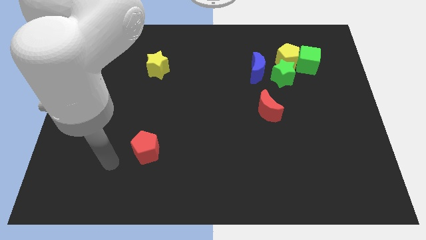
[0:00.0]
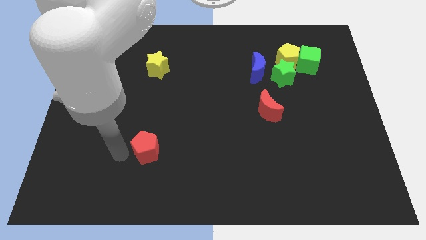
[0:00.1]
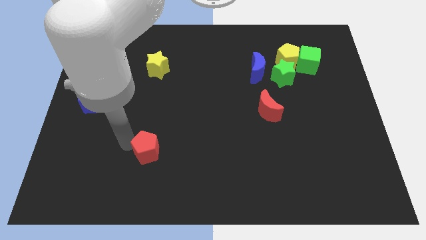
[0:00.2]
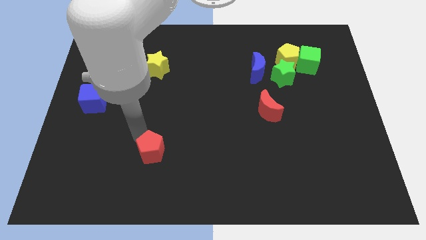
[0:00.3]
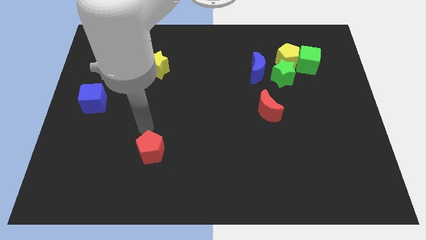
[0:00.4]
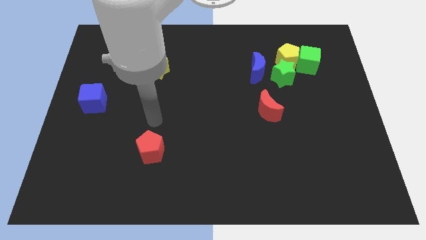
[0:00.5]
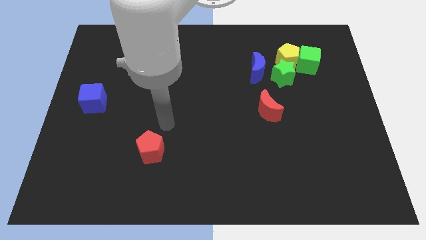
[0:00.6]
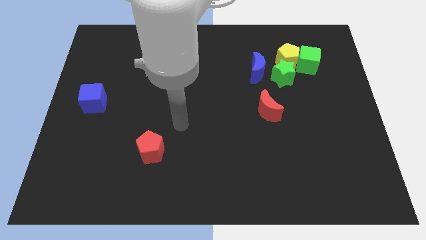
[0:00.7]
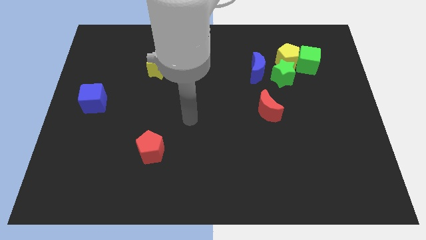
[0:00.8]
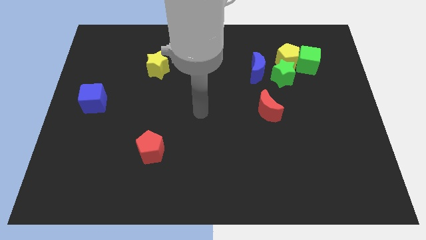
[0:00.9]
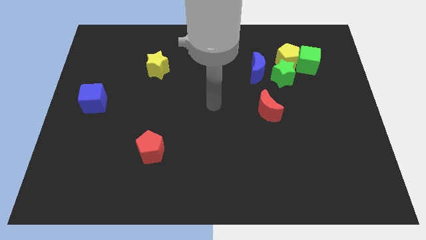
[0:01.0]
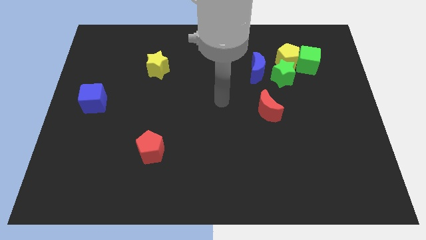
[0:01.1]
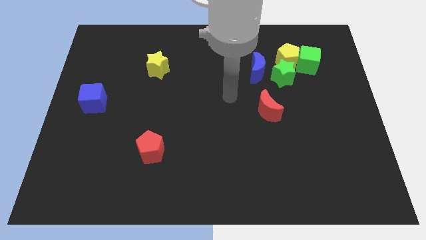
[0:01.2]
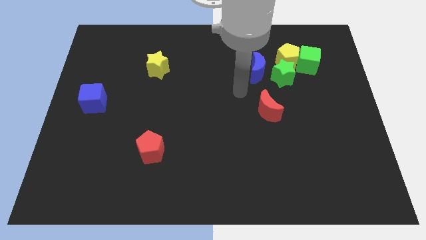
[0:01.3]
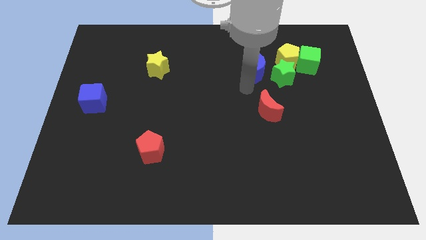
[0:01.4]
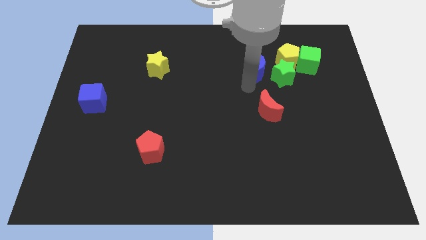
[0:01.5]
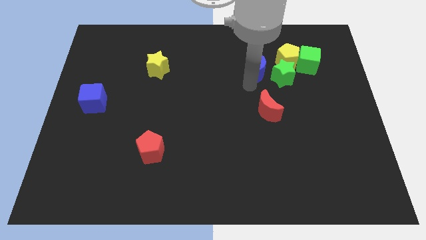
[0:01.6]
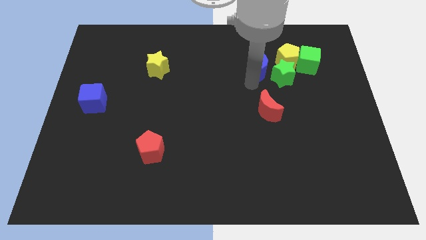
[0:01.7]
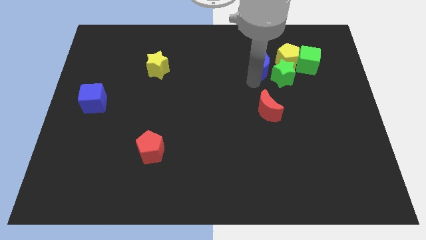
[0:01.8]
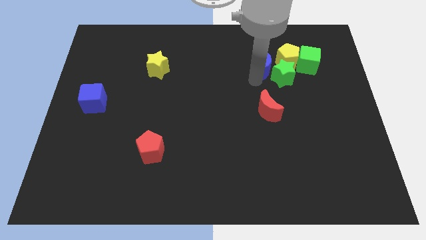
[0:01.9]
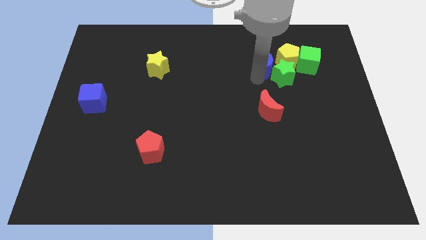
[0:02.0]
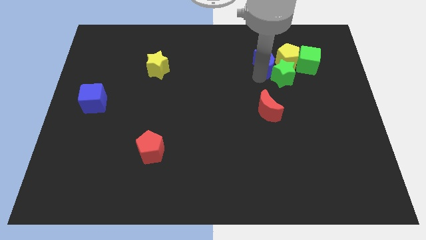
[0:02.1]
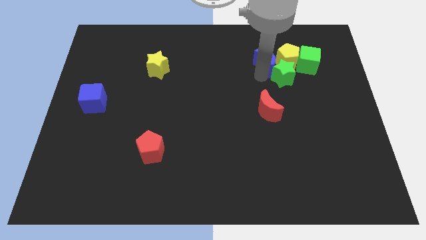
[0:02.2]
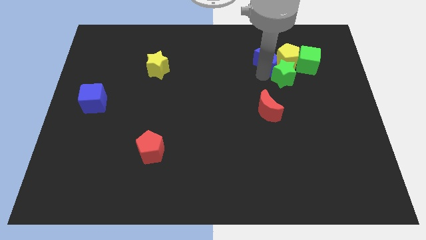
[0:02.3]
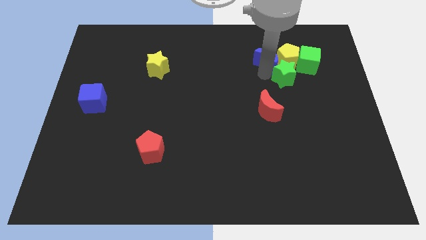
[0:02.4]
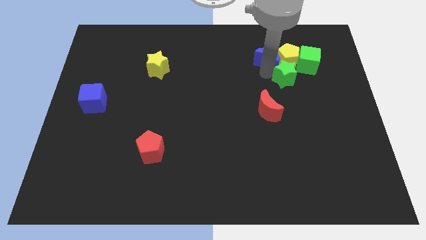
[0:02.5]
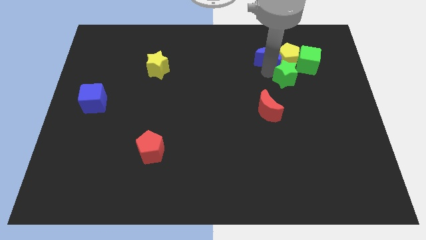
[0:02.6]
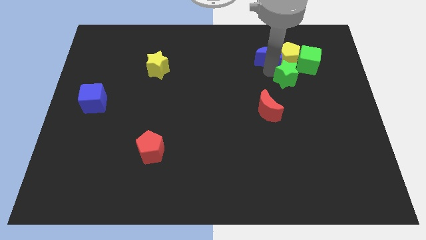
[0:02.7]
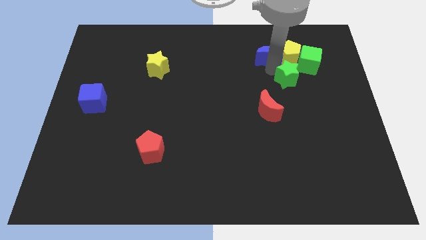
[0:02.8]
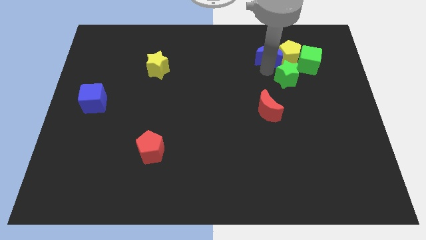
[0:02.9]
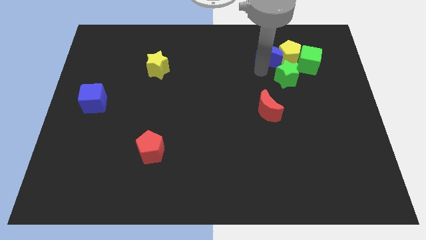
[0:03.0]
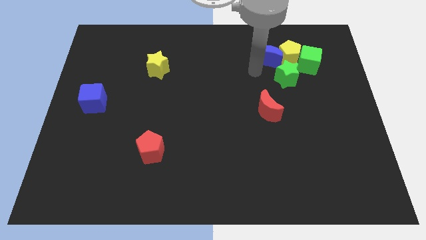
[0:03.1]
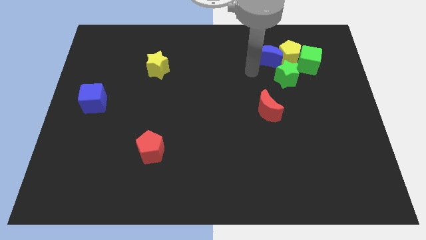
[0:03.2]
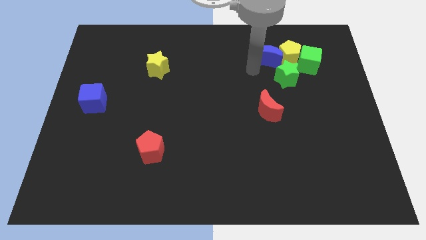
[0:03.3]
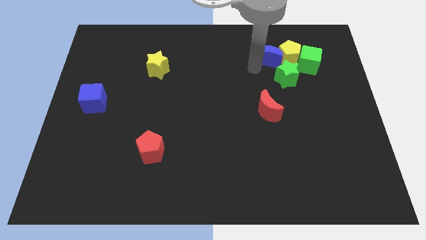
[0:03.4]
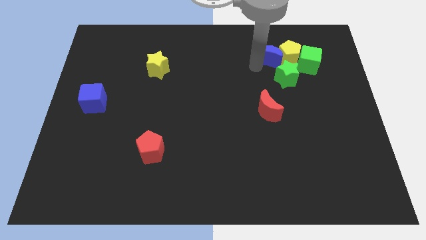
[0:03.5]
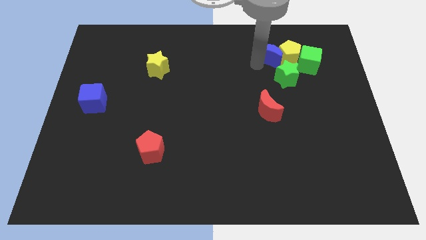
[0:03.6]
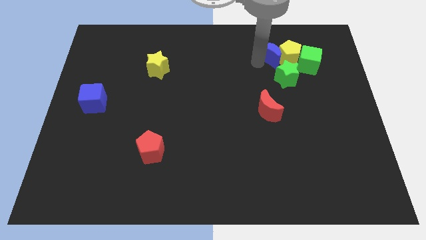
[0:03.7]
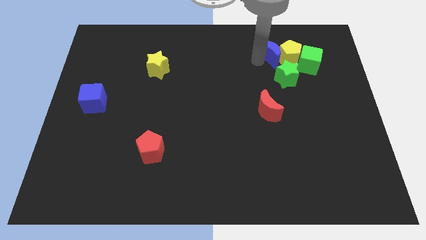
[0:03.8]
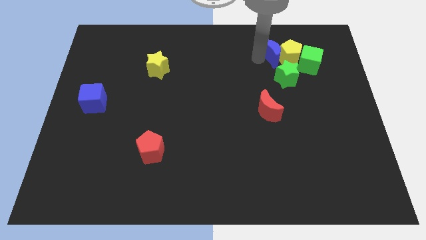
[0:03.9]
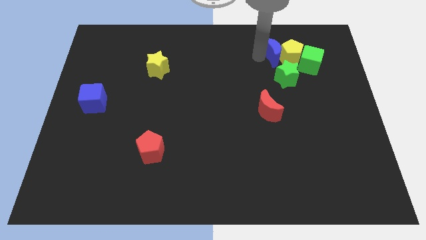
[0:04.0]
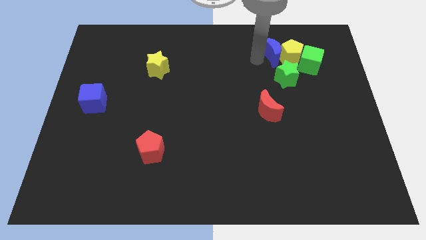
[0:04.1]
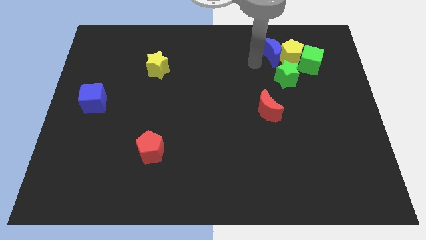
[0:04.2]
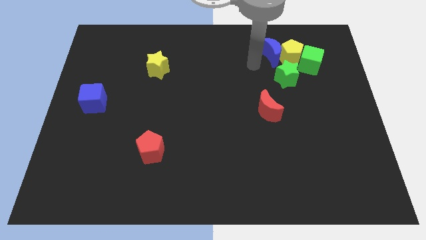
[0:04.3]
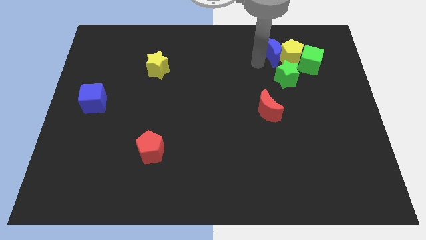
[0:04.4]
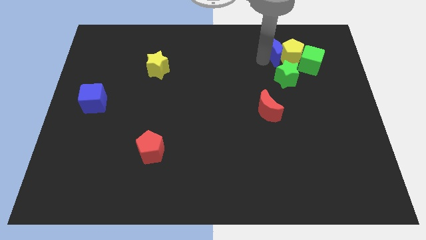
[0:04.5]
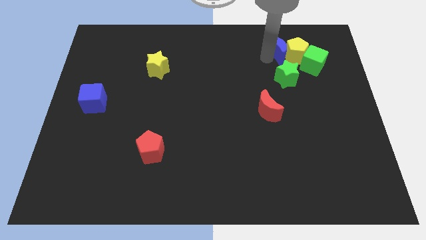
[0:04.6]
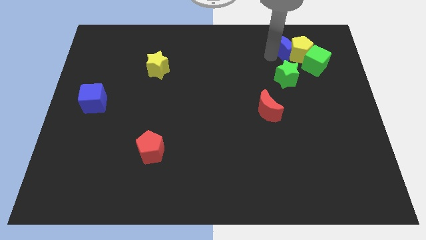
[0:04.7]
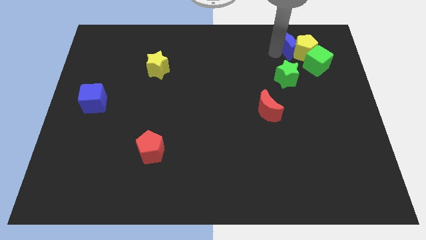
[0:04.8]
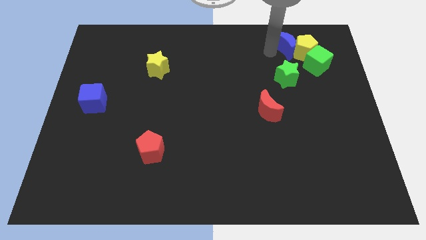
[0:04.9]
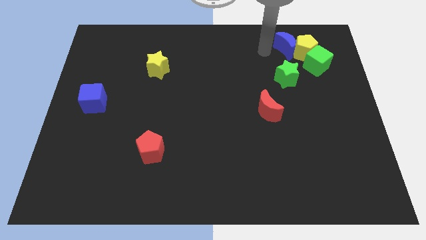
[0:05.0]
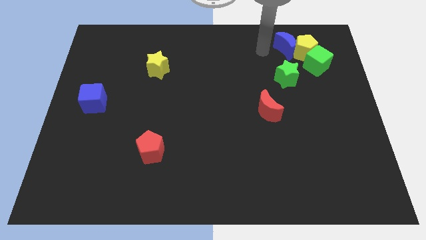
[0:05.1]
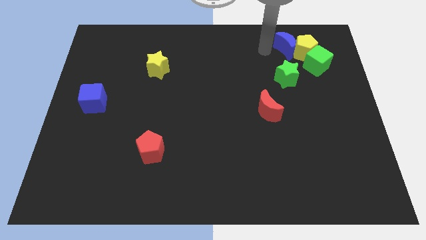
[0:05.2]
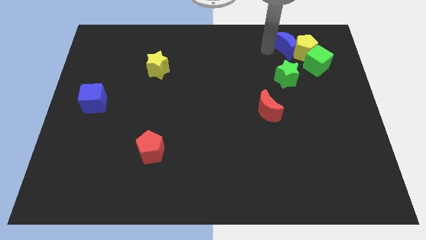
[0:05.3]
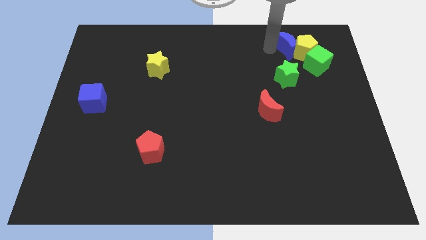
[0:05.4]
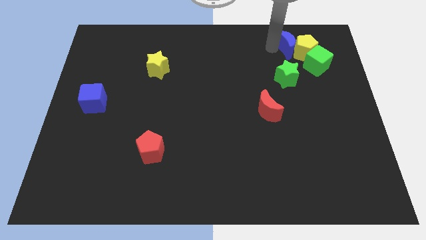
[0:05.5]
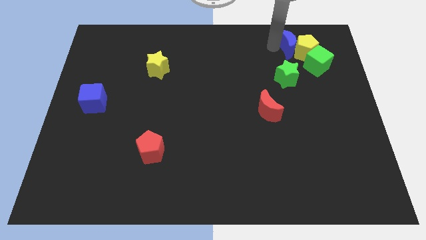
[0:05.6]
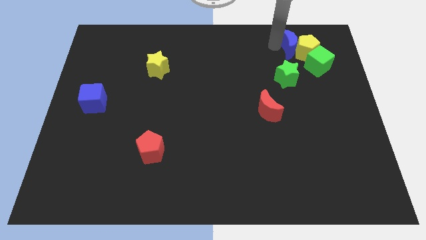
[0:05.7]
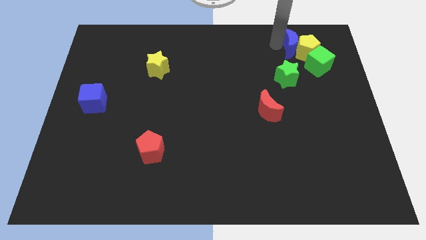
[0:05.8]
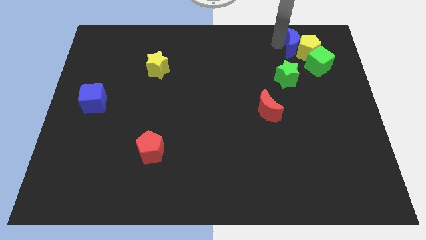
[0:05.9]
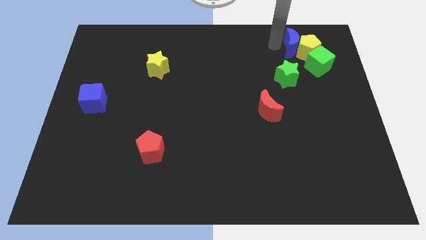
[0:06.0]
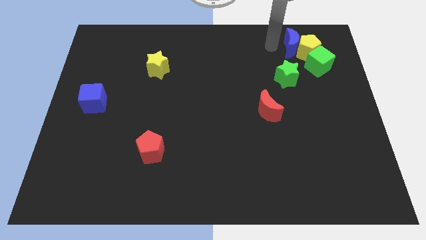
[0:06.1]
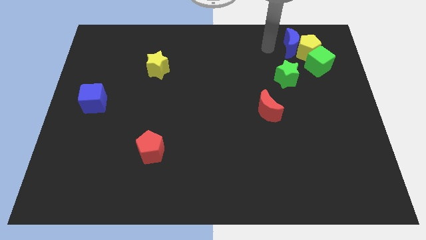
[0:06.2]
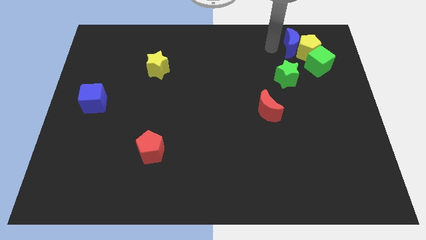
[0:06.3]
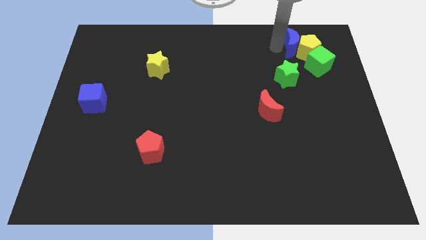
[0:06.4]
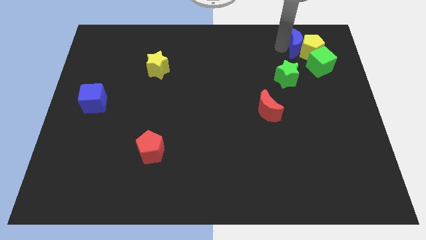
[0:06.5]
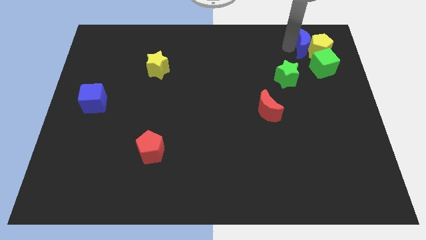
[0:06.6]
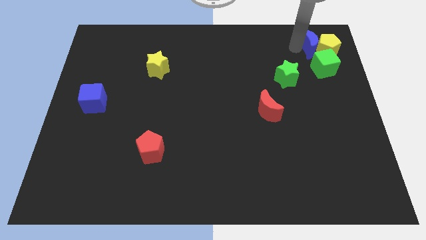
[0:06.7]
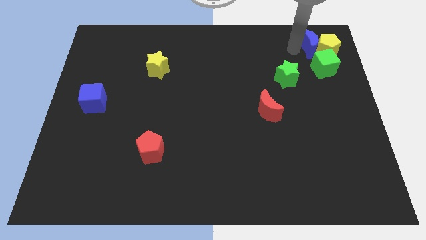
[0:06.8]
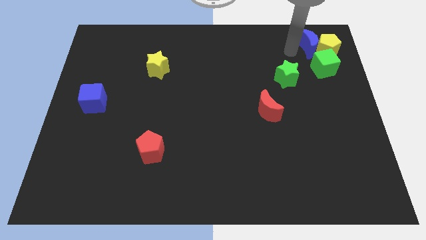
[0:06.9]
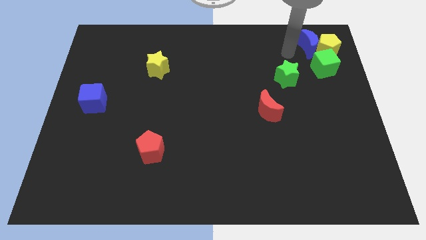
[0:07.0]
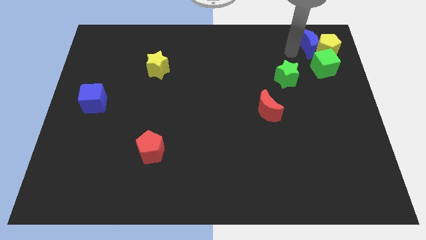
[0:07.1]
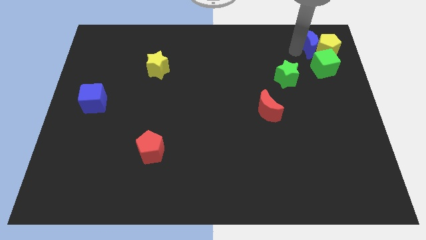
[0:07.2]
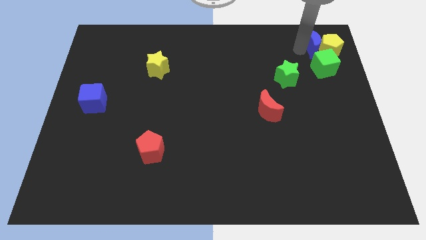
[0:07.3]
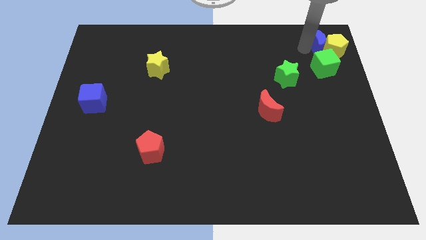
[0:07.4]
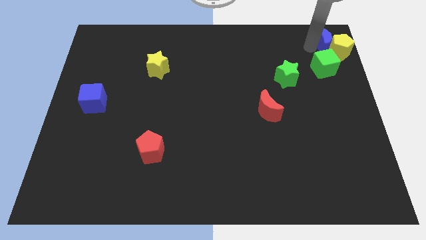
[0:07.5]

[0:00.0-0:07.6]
move the blue moon to the top right
